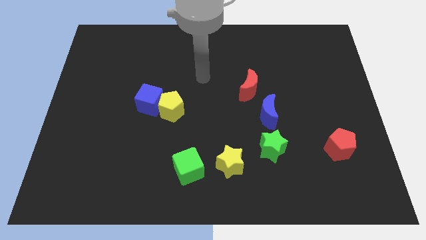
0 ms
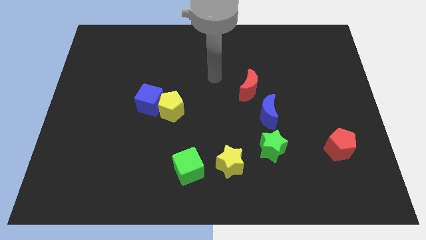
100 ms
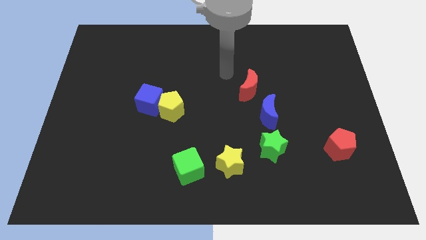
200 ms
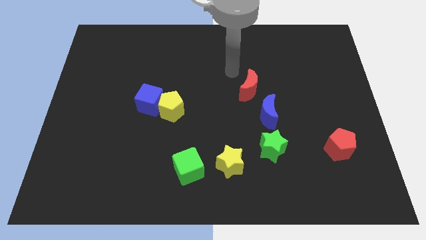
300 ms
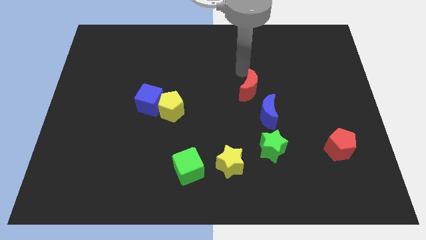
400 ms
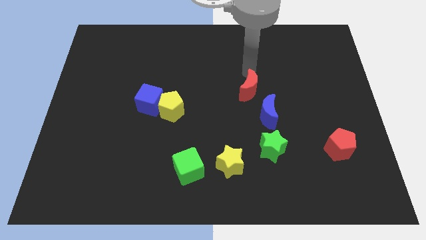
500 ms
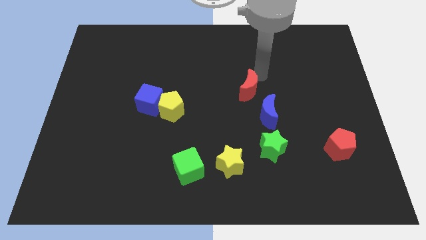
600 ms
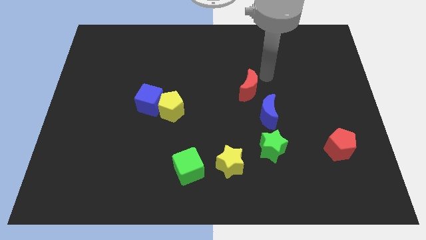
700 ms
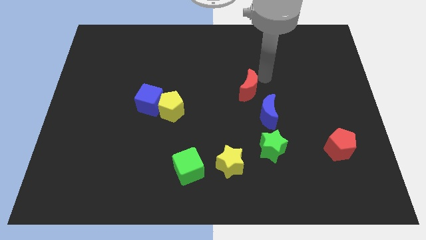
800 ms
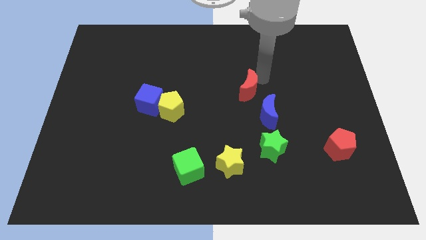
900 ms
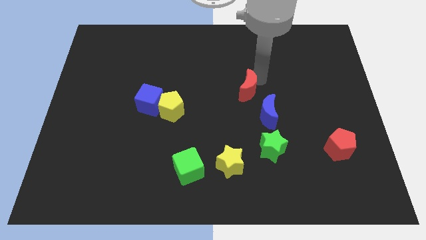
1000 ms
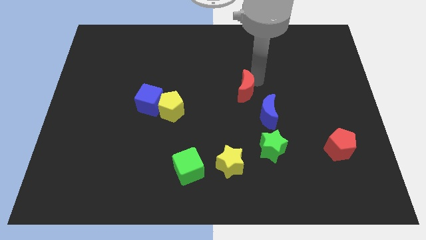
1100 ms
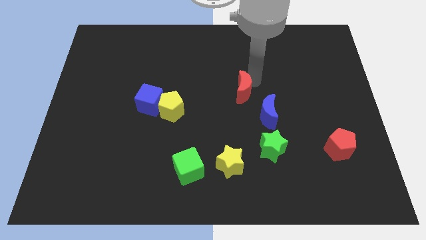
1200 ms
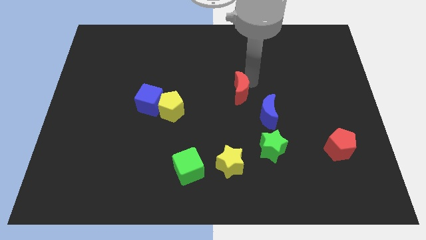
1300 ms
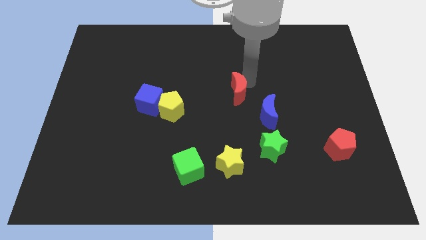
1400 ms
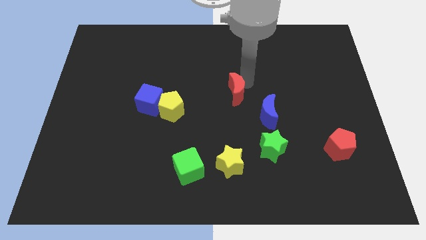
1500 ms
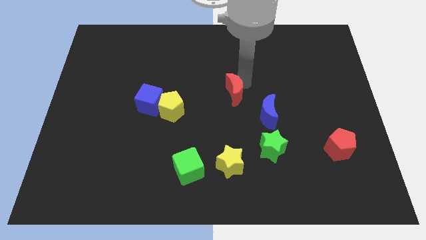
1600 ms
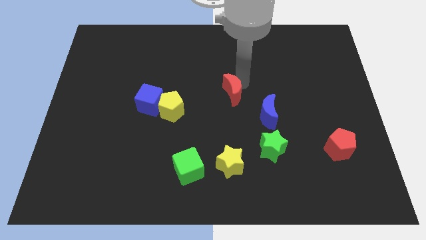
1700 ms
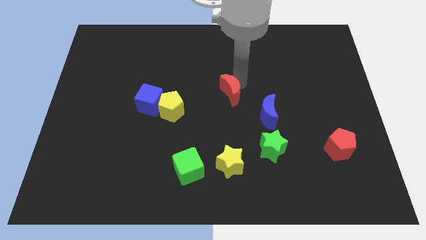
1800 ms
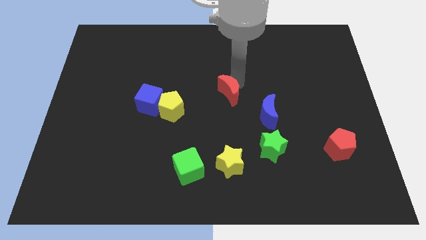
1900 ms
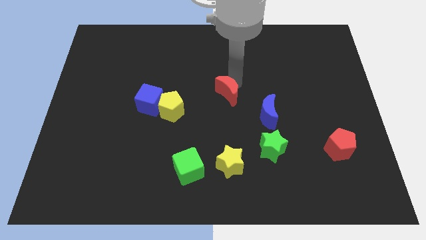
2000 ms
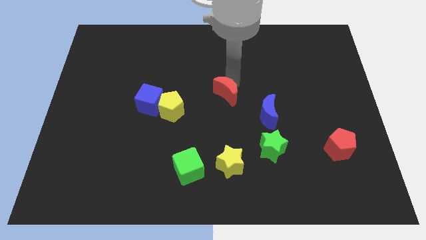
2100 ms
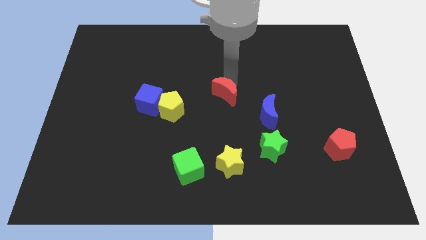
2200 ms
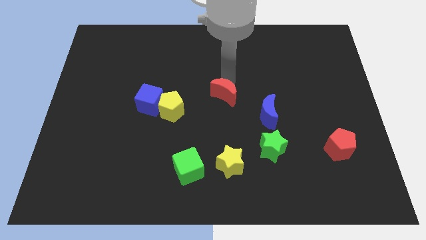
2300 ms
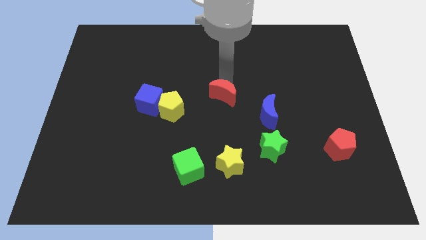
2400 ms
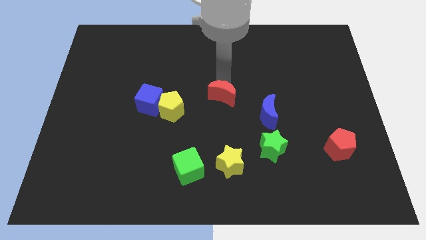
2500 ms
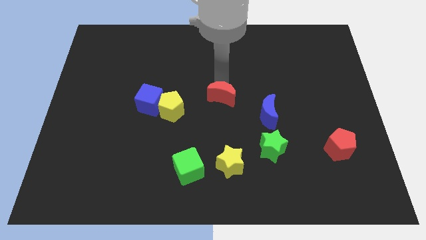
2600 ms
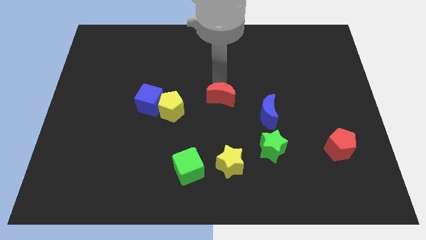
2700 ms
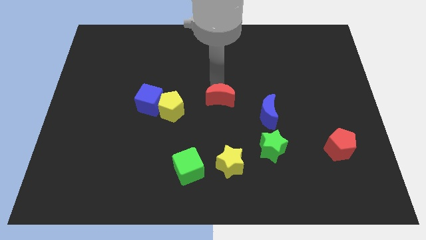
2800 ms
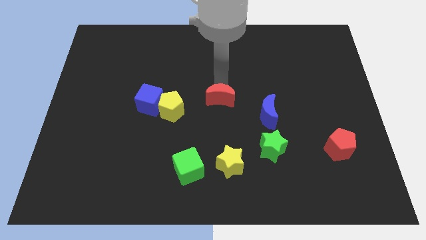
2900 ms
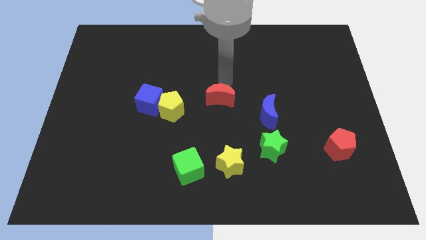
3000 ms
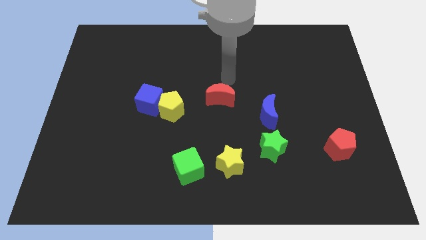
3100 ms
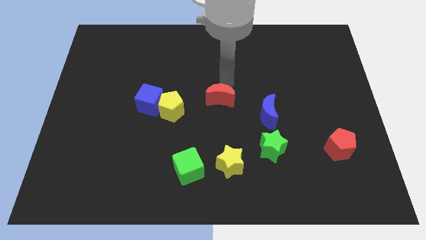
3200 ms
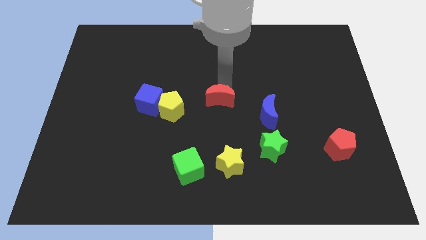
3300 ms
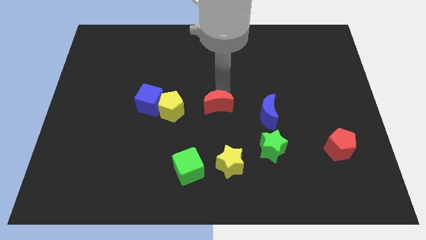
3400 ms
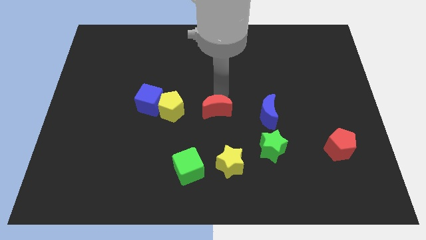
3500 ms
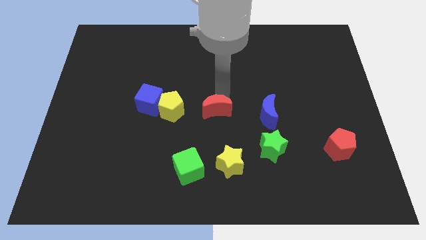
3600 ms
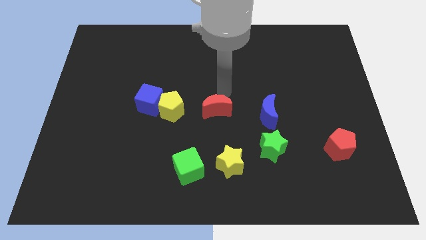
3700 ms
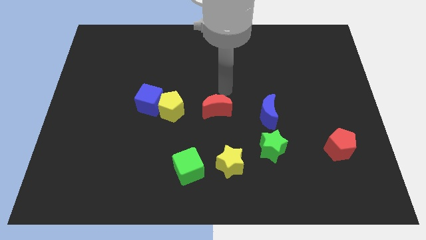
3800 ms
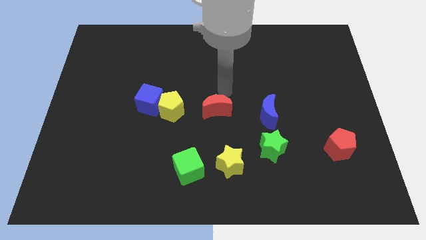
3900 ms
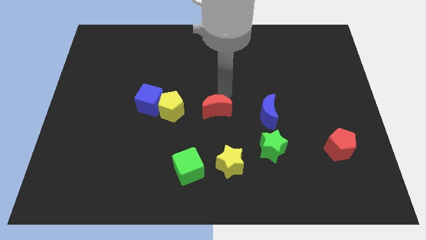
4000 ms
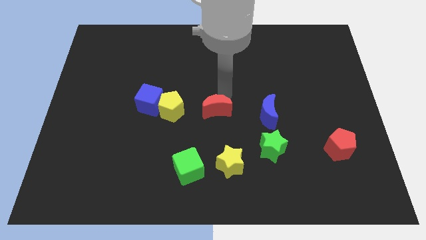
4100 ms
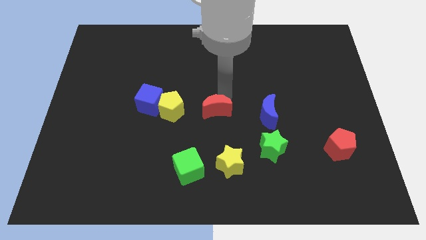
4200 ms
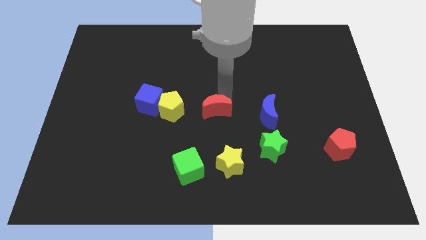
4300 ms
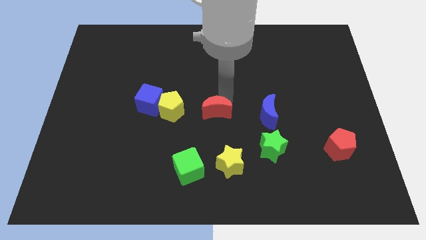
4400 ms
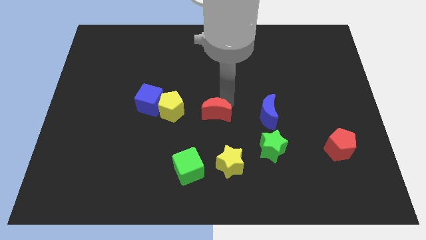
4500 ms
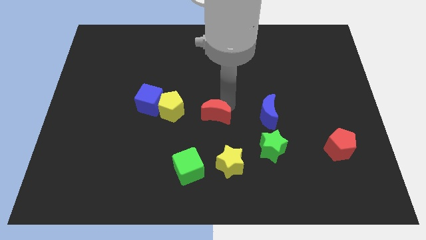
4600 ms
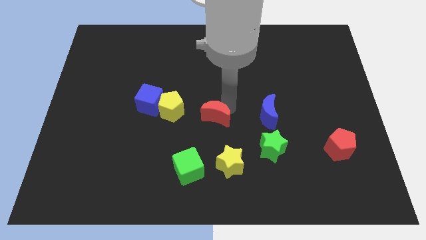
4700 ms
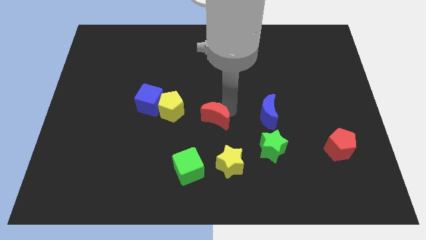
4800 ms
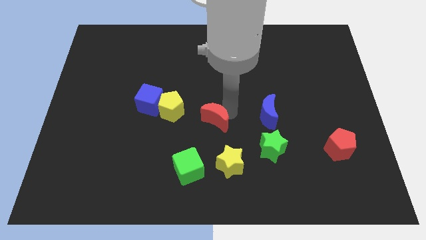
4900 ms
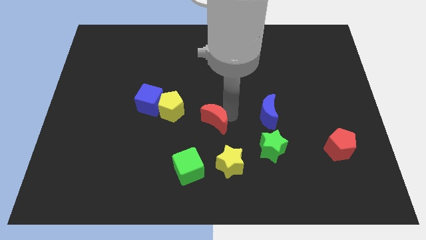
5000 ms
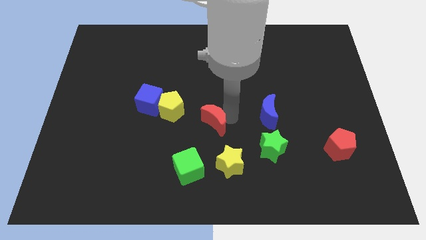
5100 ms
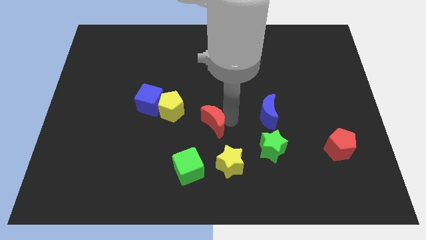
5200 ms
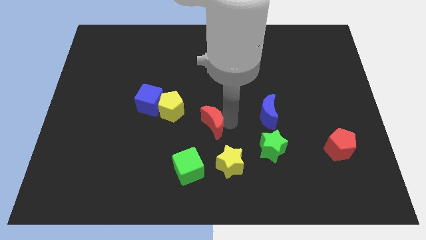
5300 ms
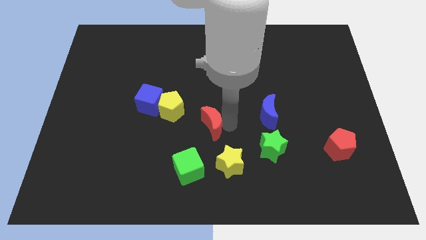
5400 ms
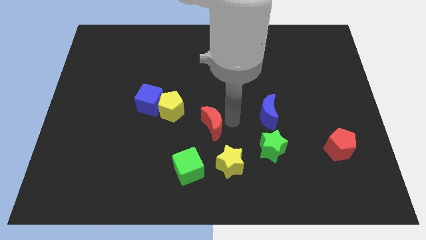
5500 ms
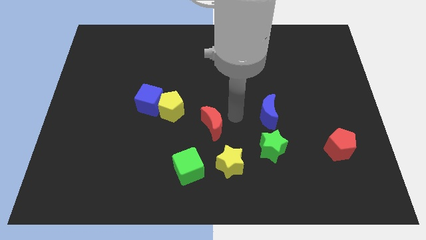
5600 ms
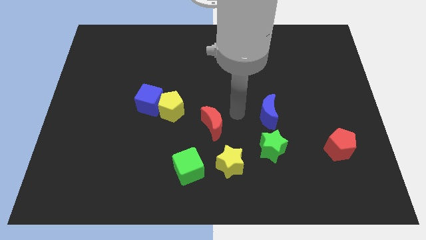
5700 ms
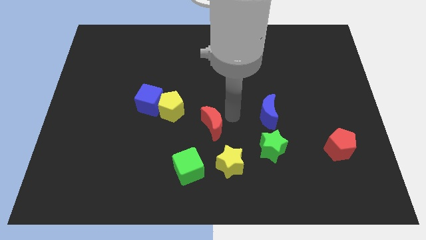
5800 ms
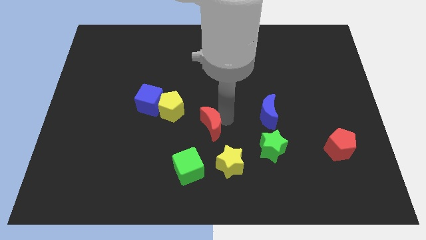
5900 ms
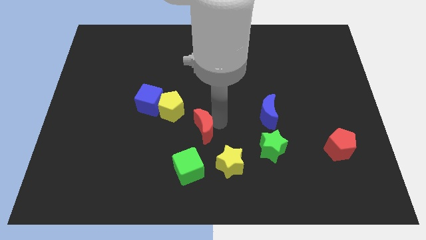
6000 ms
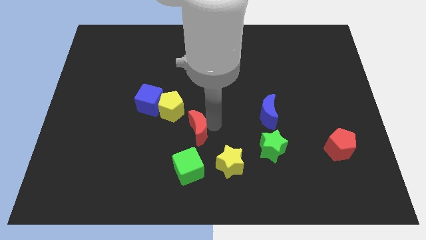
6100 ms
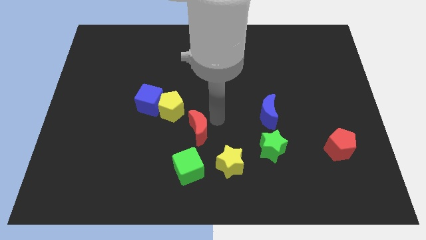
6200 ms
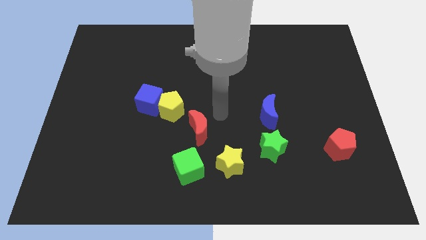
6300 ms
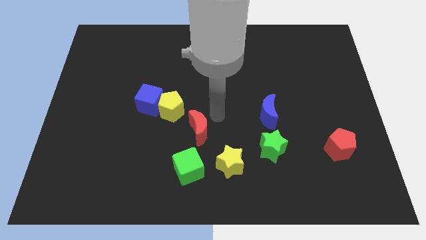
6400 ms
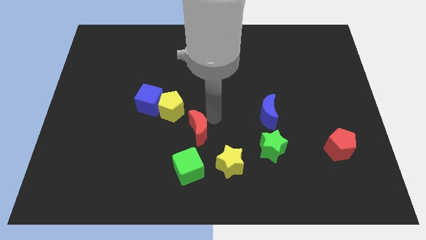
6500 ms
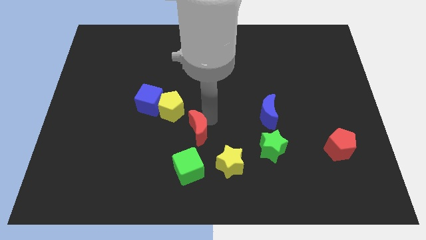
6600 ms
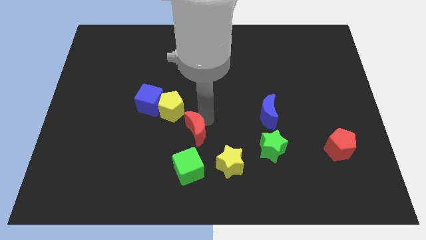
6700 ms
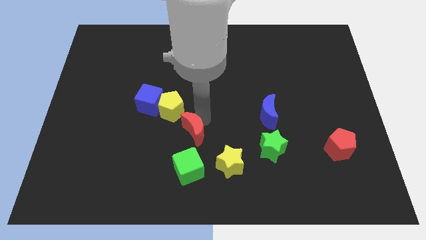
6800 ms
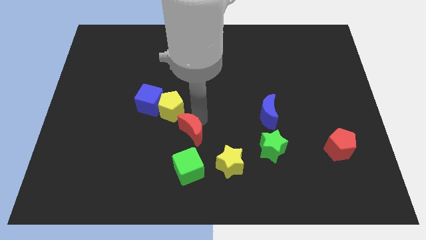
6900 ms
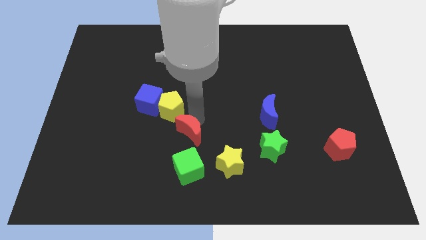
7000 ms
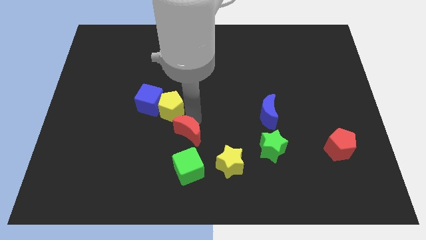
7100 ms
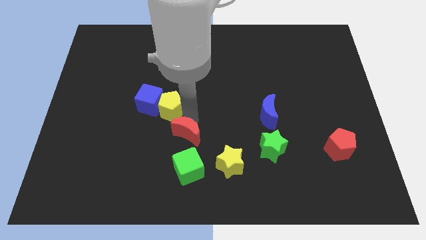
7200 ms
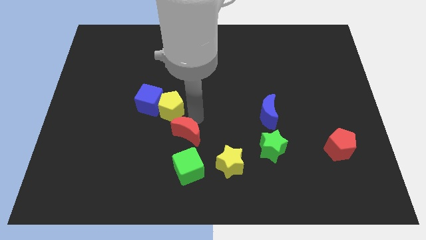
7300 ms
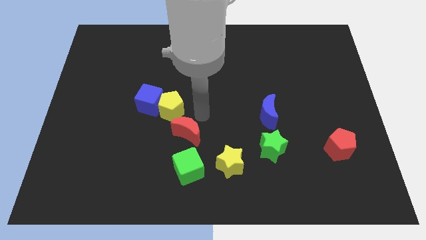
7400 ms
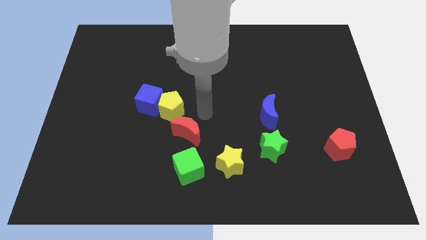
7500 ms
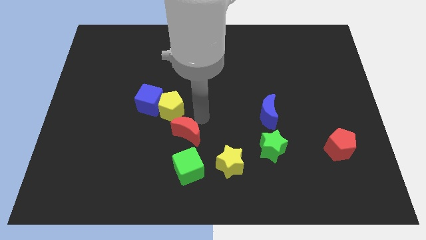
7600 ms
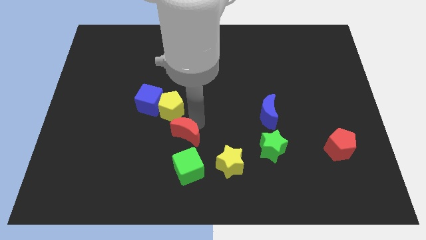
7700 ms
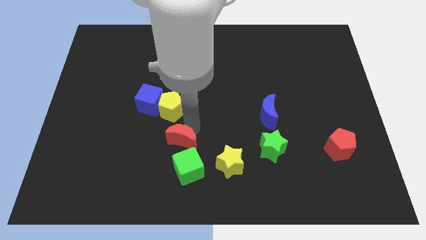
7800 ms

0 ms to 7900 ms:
slide the red moon downwards and left
